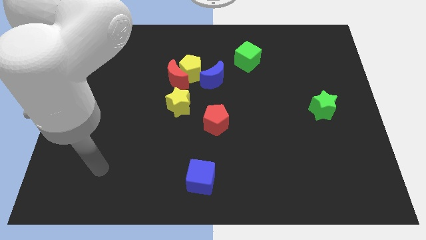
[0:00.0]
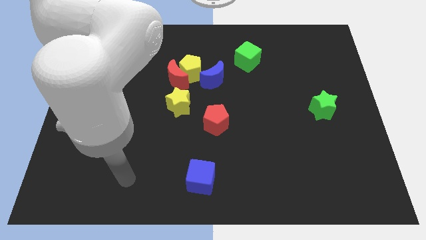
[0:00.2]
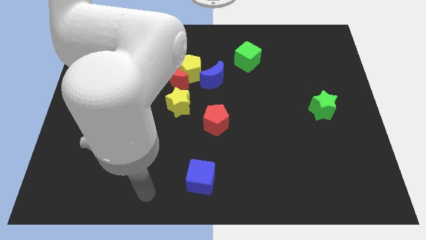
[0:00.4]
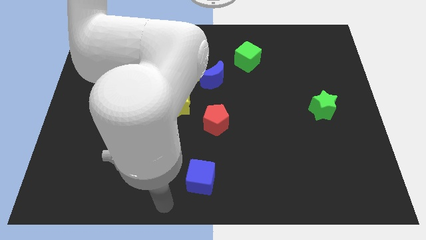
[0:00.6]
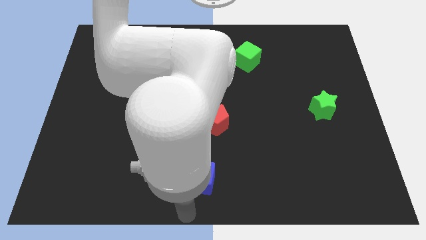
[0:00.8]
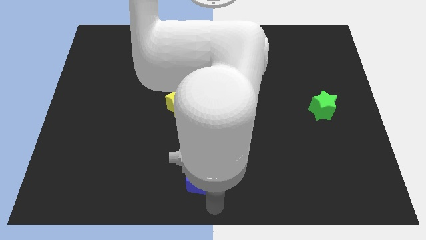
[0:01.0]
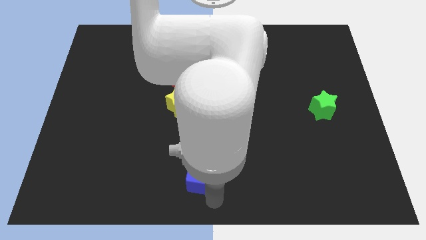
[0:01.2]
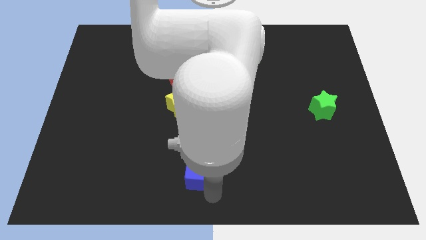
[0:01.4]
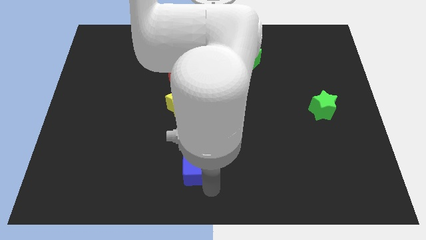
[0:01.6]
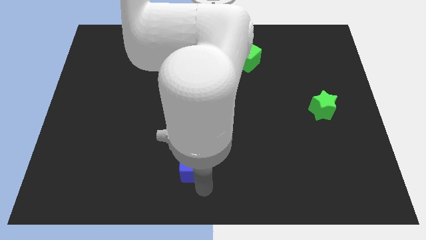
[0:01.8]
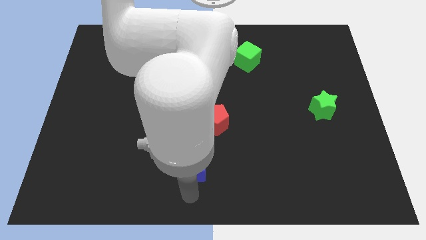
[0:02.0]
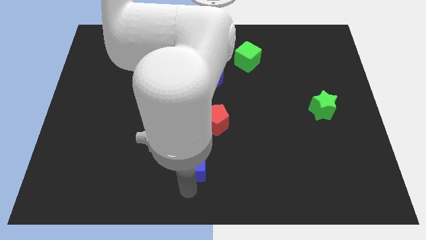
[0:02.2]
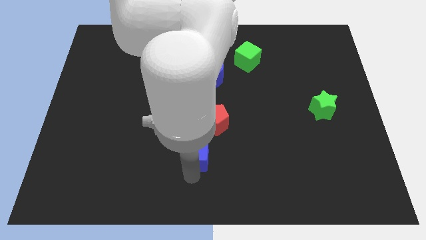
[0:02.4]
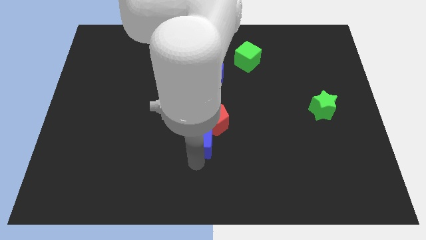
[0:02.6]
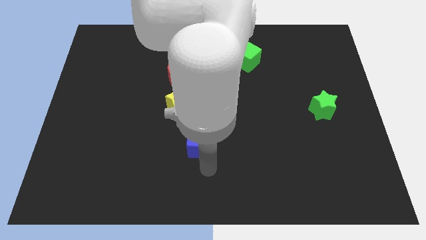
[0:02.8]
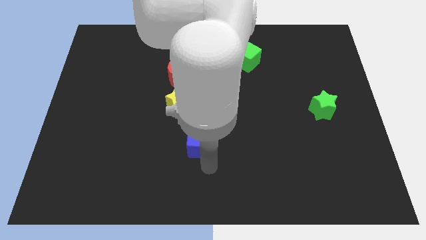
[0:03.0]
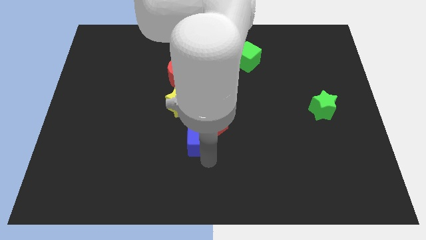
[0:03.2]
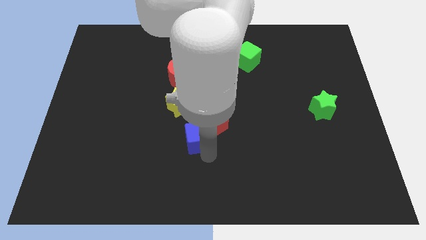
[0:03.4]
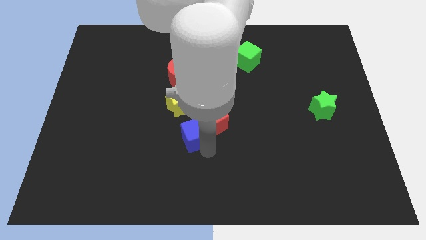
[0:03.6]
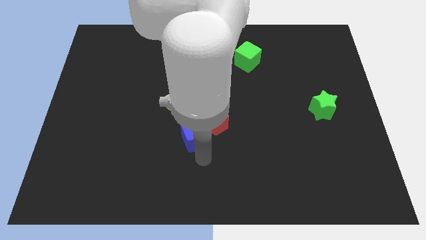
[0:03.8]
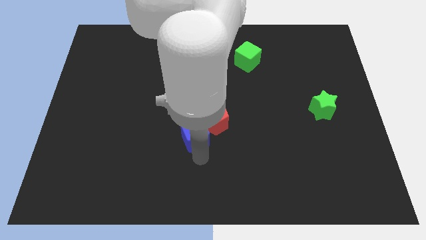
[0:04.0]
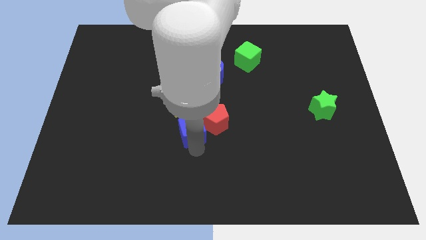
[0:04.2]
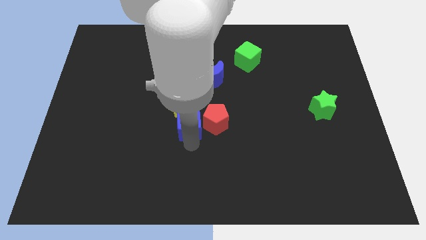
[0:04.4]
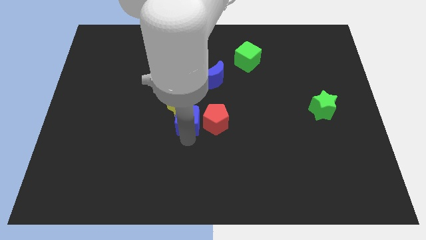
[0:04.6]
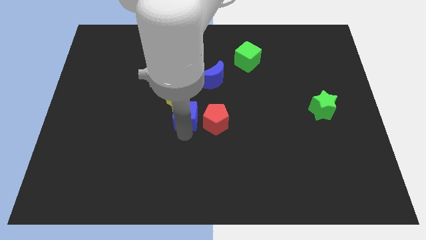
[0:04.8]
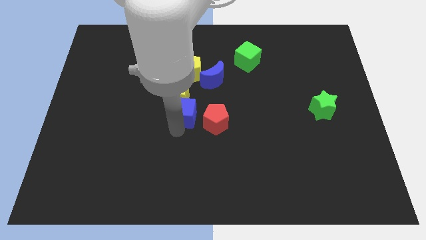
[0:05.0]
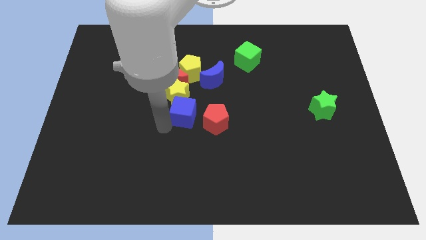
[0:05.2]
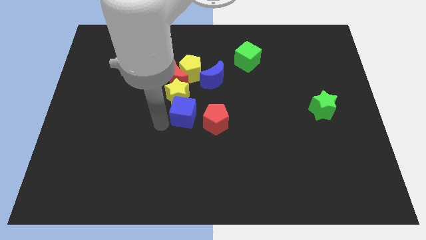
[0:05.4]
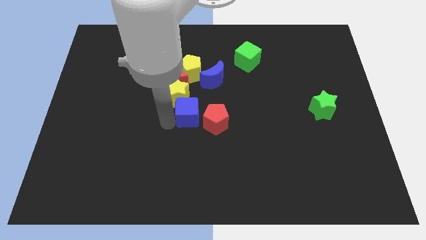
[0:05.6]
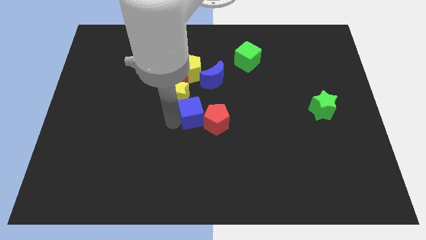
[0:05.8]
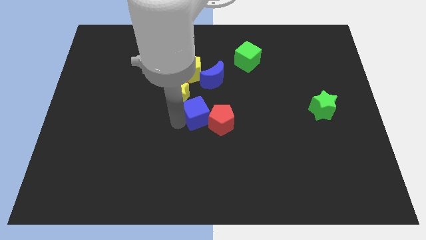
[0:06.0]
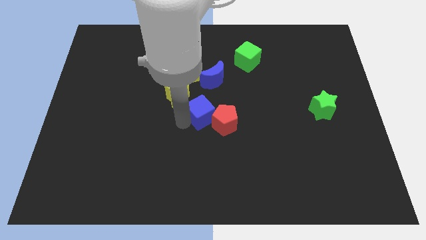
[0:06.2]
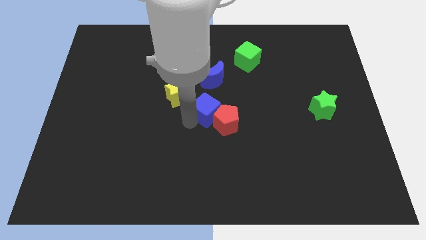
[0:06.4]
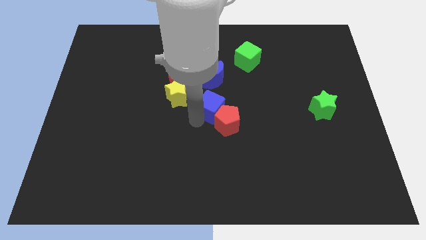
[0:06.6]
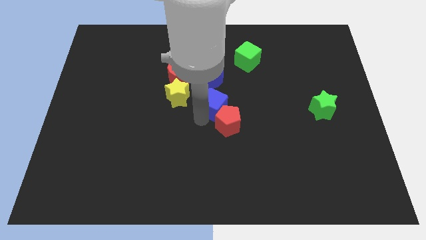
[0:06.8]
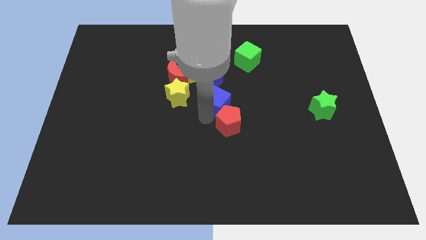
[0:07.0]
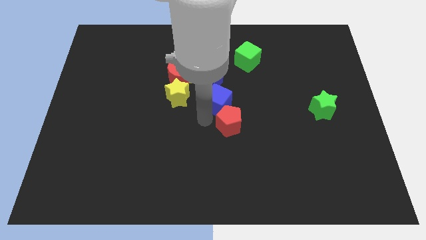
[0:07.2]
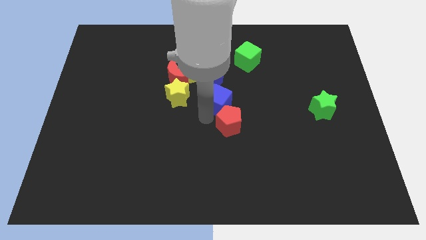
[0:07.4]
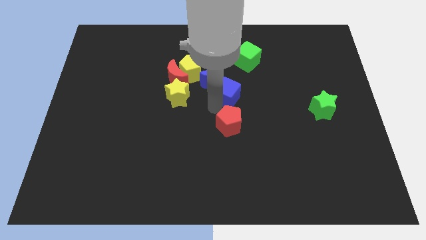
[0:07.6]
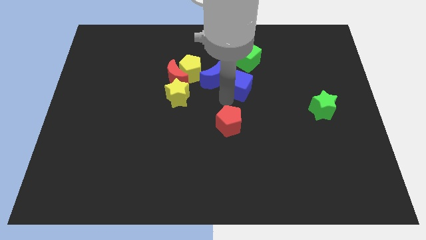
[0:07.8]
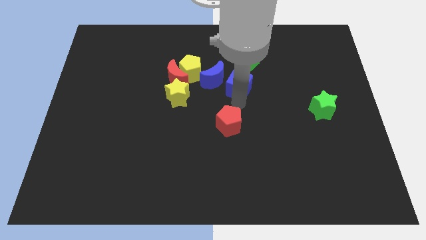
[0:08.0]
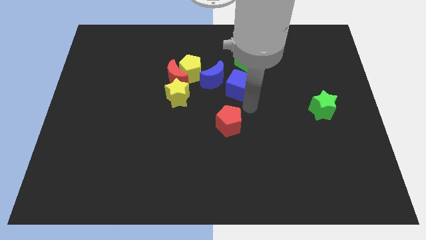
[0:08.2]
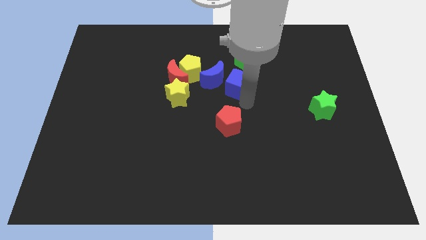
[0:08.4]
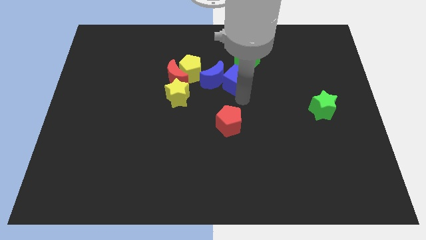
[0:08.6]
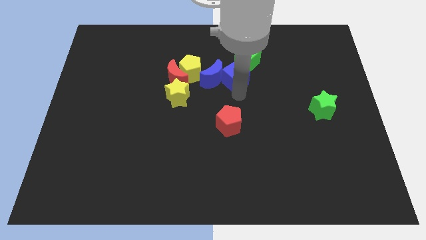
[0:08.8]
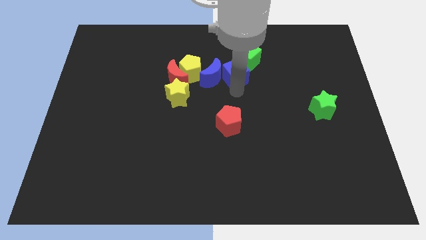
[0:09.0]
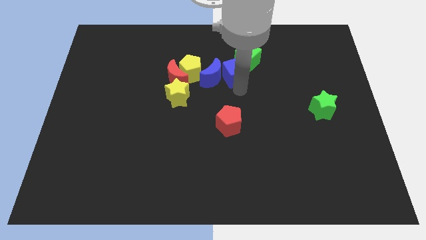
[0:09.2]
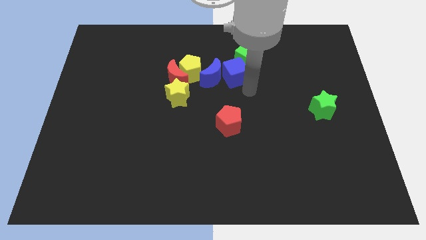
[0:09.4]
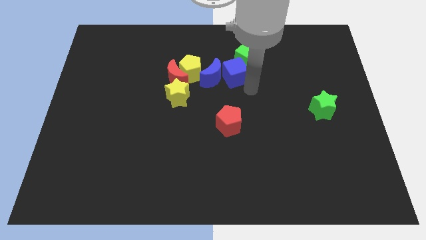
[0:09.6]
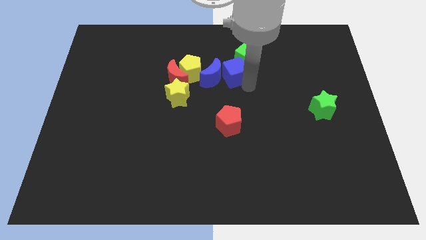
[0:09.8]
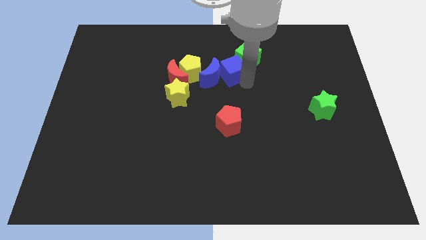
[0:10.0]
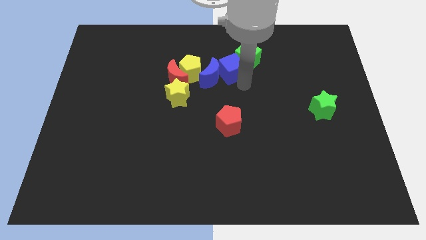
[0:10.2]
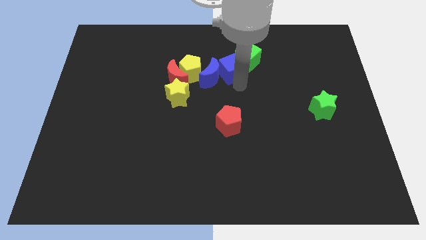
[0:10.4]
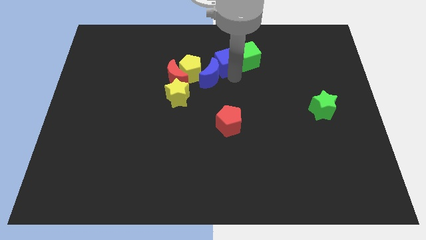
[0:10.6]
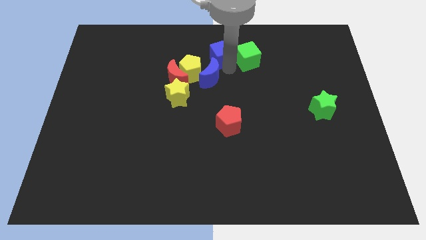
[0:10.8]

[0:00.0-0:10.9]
move the blue cube to the top side

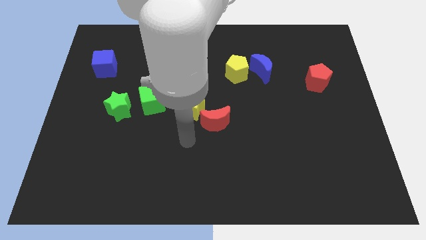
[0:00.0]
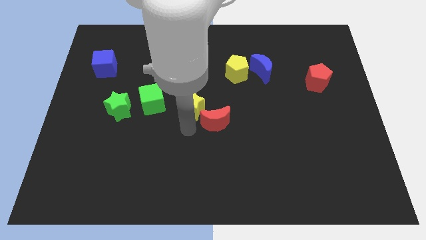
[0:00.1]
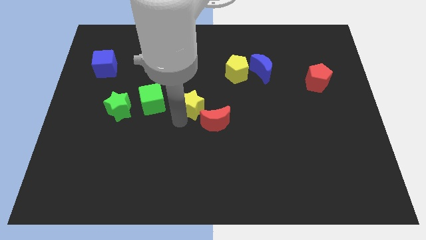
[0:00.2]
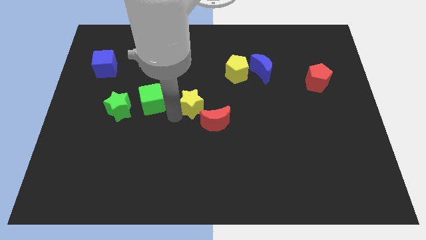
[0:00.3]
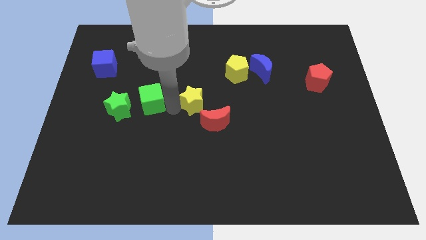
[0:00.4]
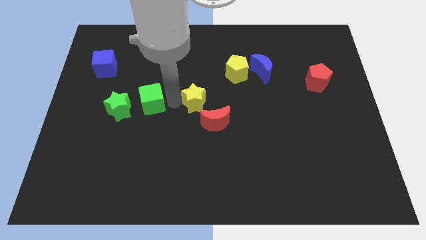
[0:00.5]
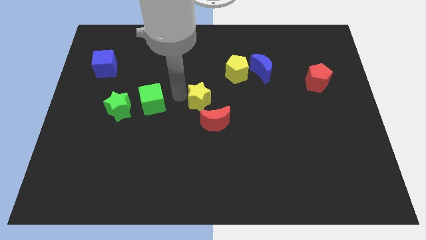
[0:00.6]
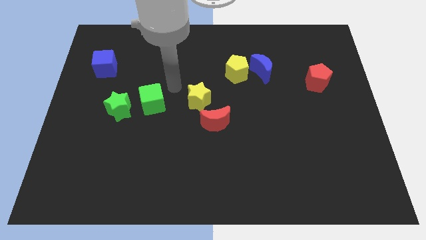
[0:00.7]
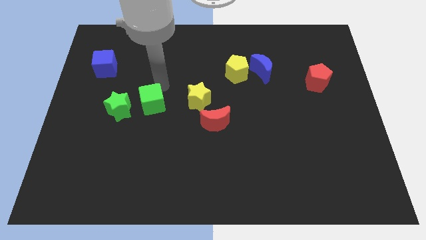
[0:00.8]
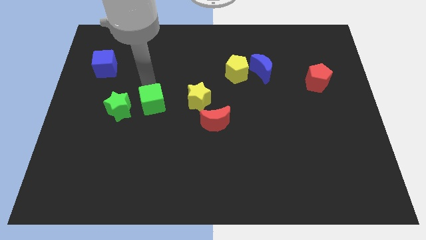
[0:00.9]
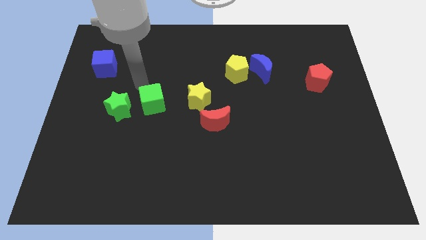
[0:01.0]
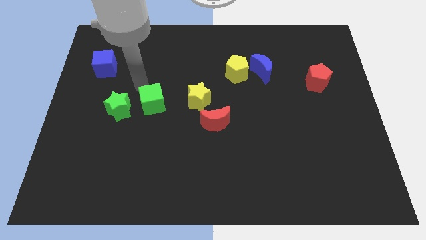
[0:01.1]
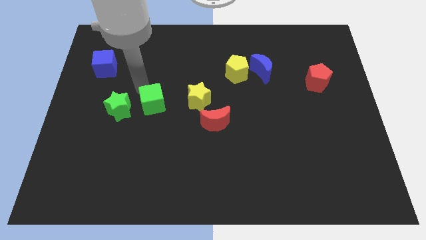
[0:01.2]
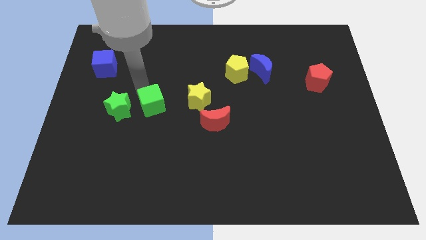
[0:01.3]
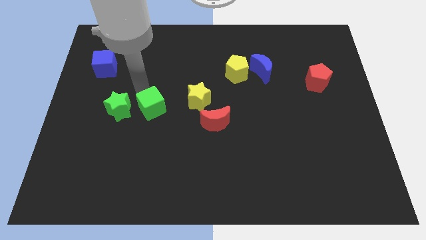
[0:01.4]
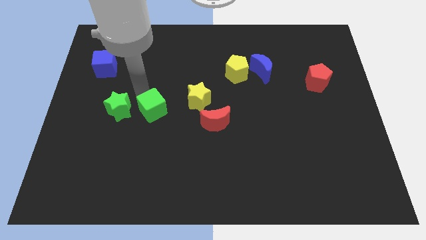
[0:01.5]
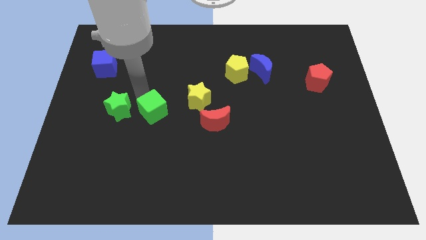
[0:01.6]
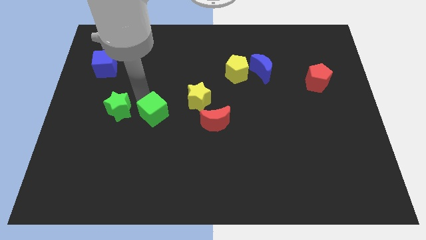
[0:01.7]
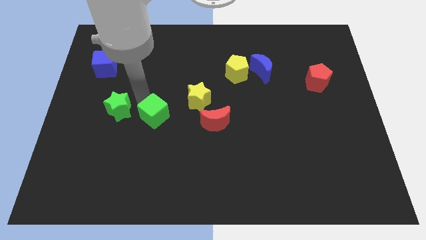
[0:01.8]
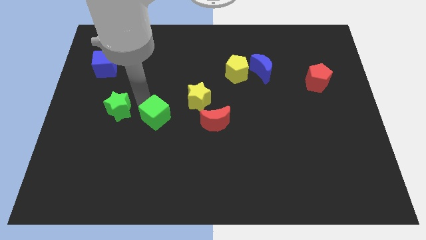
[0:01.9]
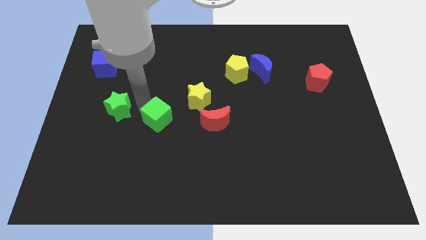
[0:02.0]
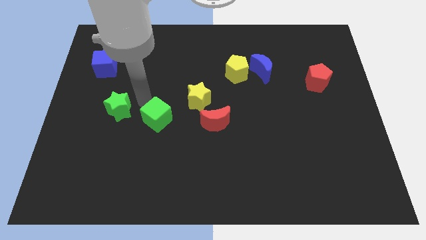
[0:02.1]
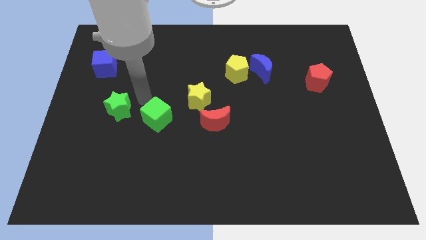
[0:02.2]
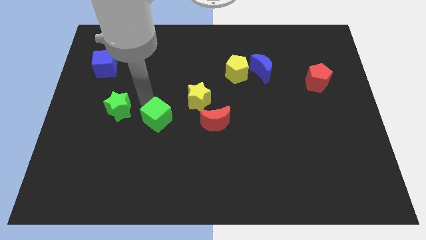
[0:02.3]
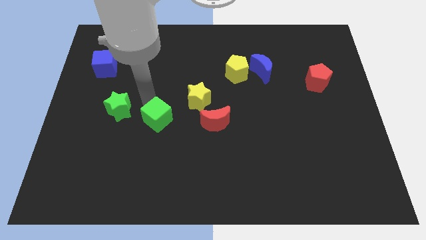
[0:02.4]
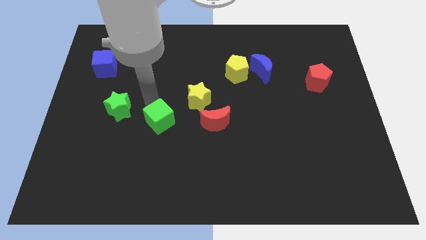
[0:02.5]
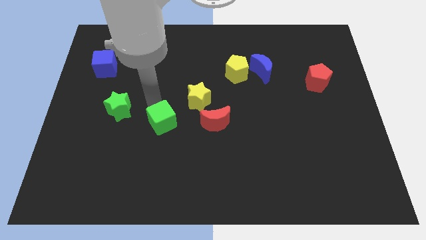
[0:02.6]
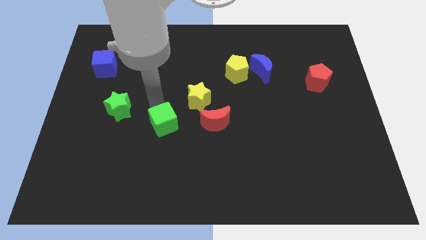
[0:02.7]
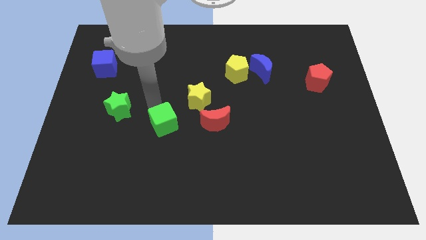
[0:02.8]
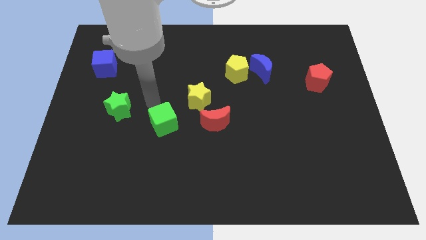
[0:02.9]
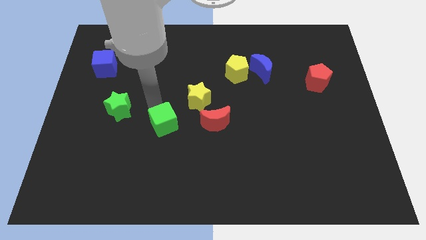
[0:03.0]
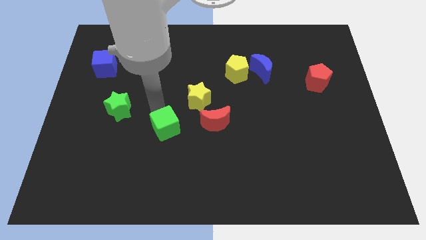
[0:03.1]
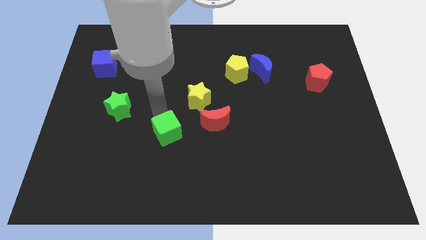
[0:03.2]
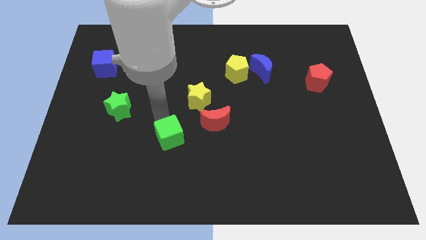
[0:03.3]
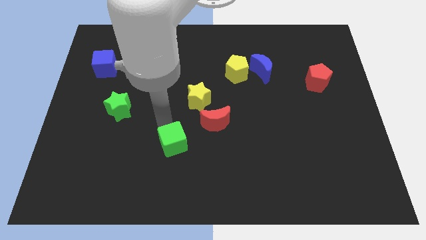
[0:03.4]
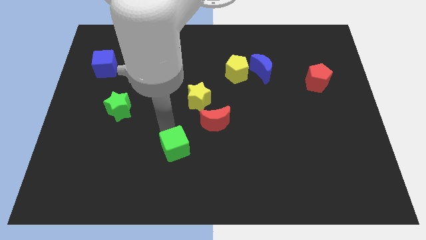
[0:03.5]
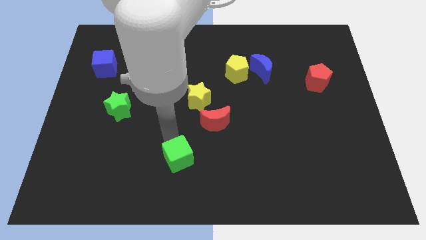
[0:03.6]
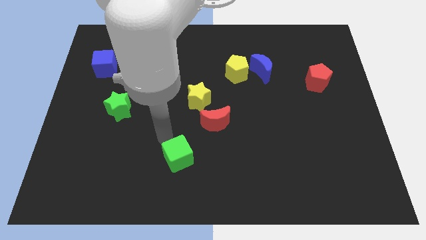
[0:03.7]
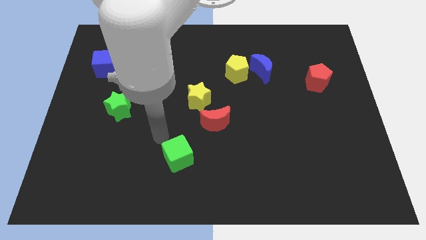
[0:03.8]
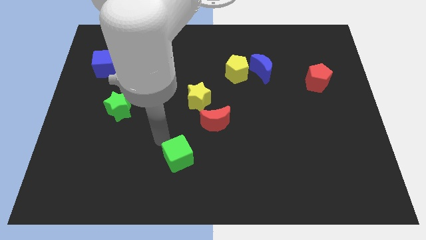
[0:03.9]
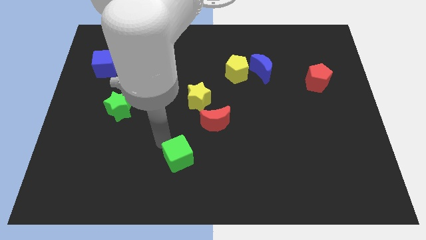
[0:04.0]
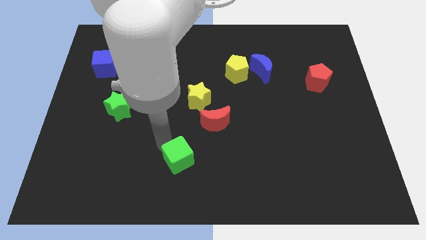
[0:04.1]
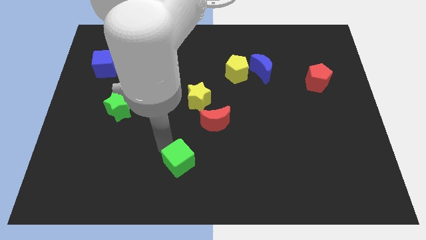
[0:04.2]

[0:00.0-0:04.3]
slide the green cube to the bottom
